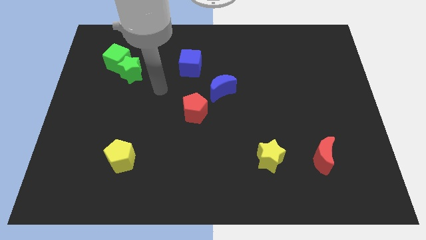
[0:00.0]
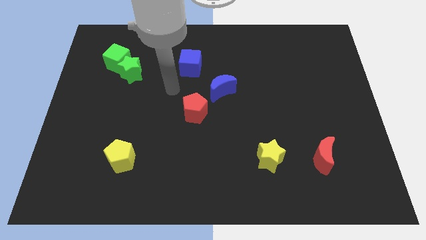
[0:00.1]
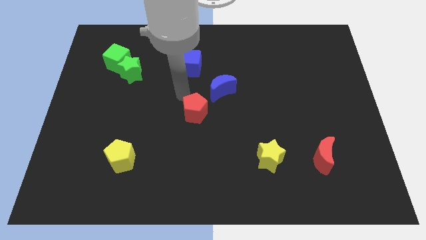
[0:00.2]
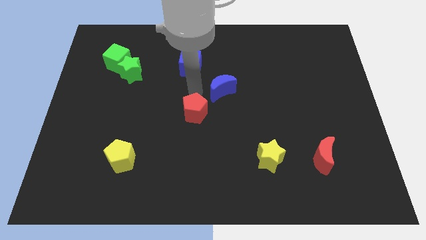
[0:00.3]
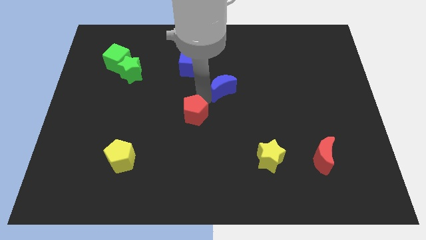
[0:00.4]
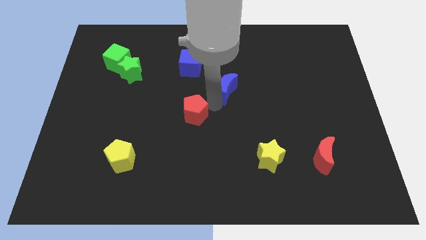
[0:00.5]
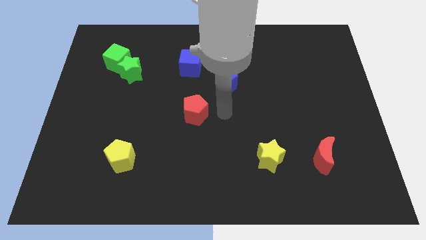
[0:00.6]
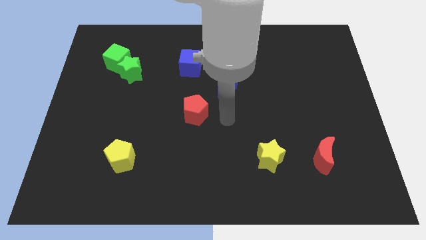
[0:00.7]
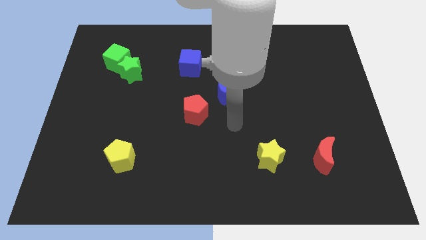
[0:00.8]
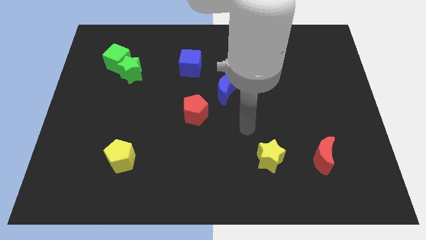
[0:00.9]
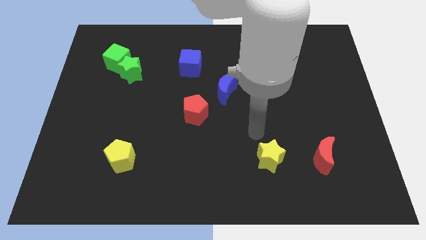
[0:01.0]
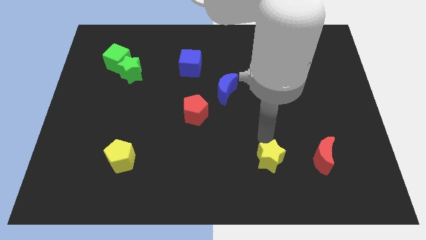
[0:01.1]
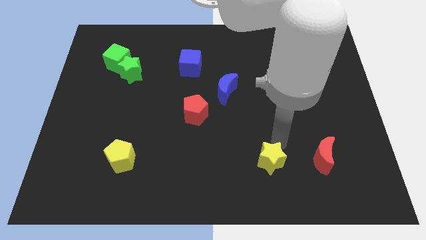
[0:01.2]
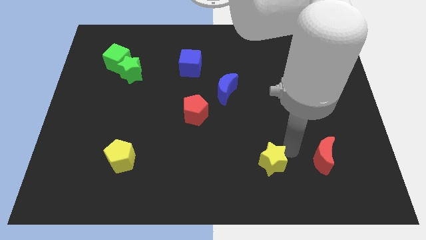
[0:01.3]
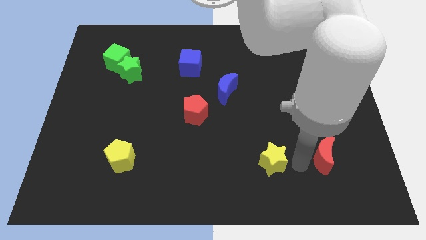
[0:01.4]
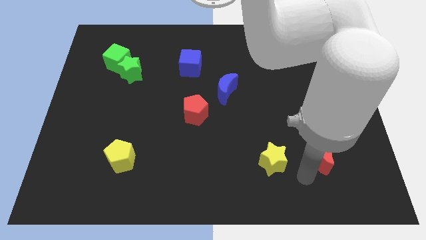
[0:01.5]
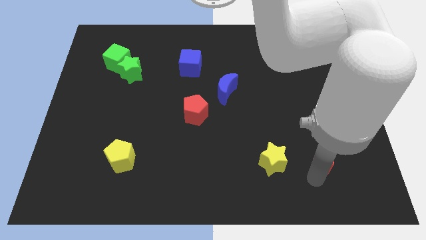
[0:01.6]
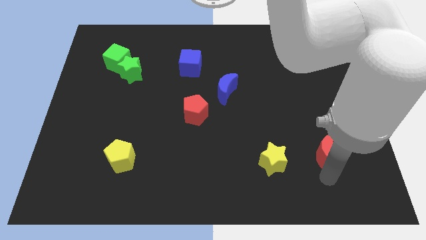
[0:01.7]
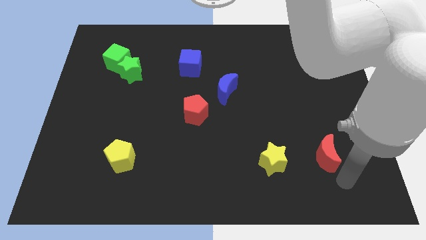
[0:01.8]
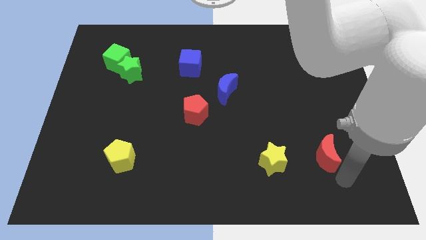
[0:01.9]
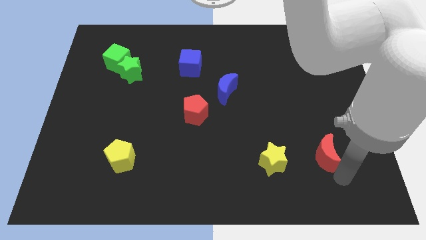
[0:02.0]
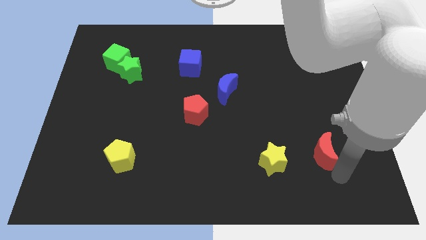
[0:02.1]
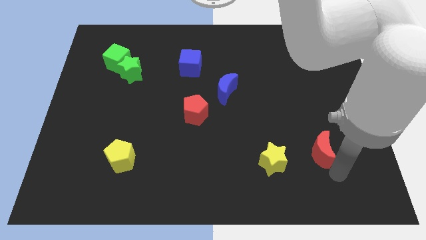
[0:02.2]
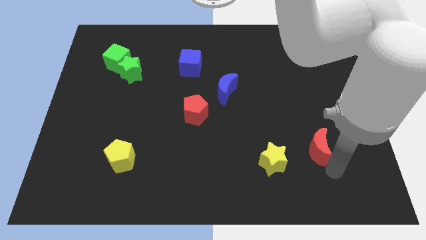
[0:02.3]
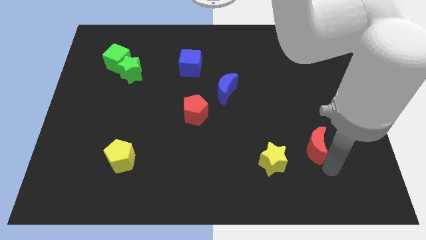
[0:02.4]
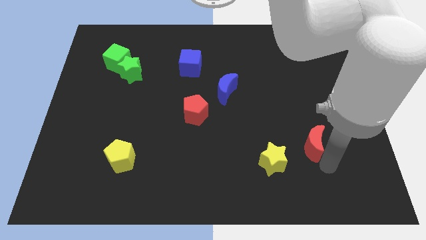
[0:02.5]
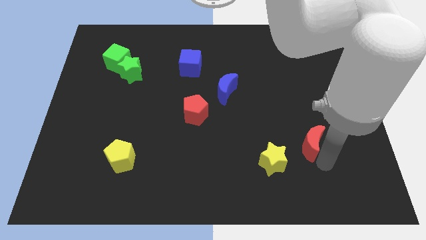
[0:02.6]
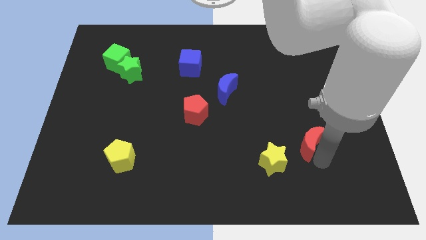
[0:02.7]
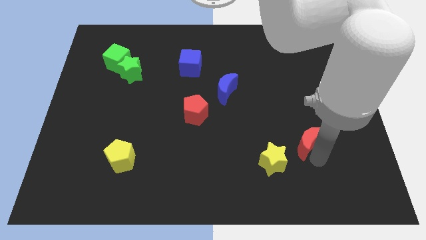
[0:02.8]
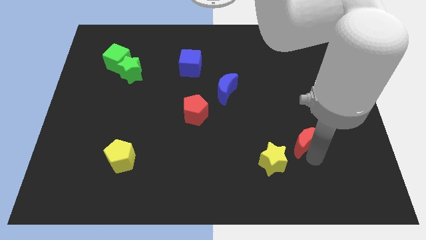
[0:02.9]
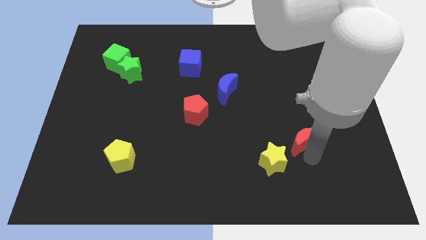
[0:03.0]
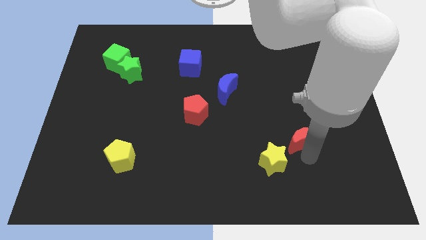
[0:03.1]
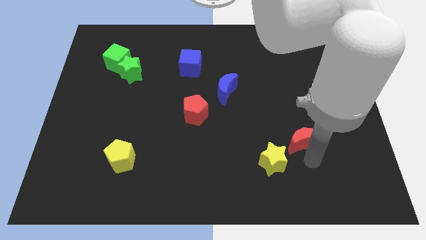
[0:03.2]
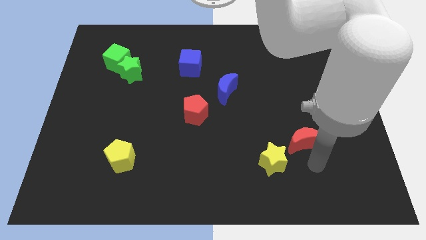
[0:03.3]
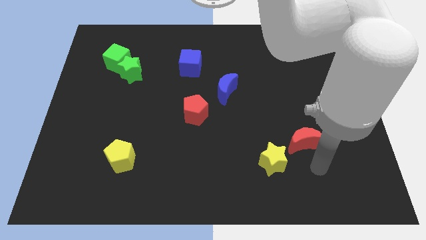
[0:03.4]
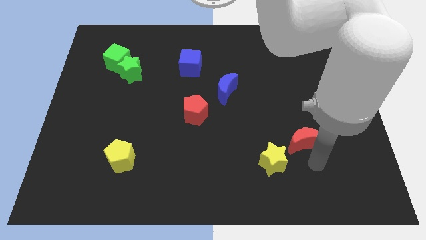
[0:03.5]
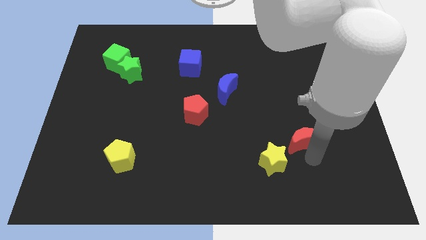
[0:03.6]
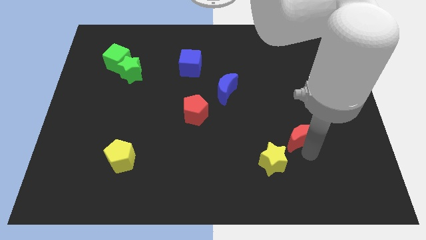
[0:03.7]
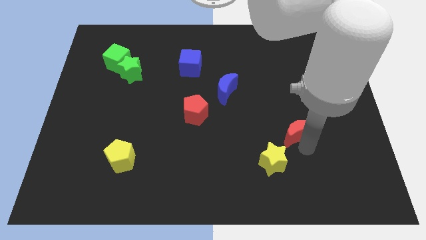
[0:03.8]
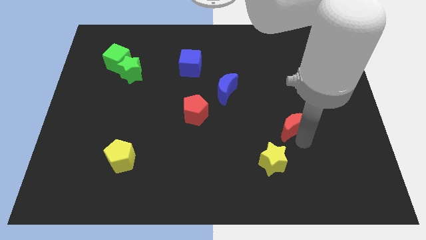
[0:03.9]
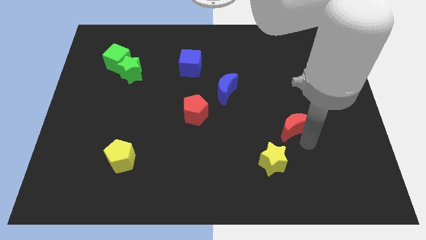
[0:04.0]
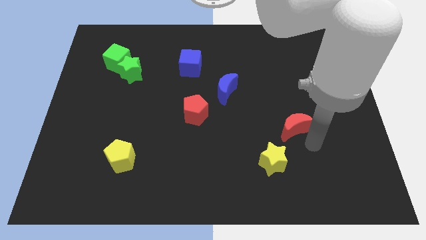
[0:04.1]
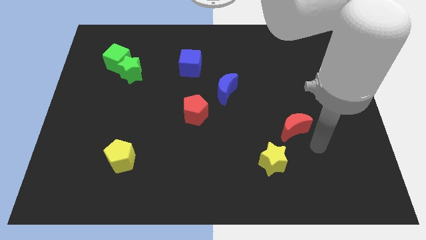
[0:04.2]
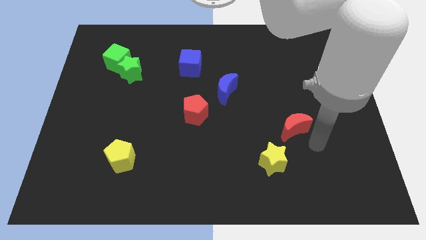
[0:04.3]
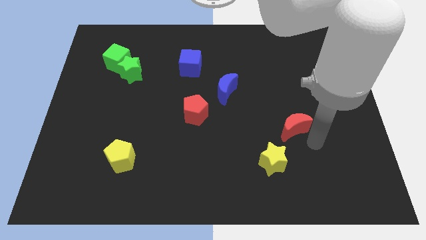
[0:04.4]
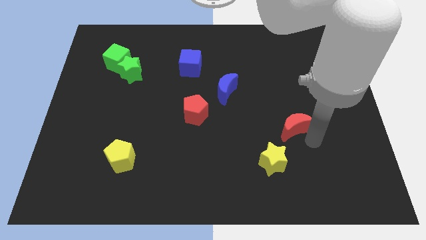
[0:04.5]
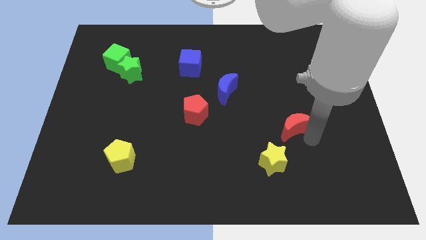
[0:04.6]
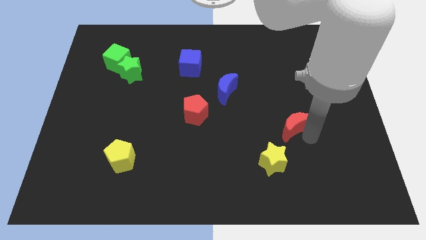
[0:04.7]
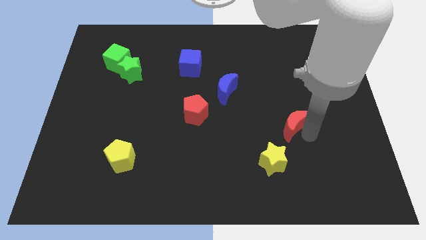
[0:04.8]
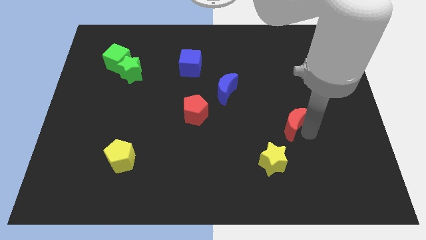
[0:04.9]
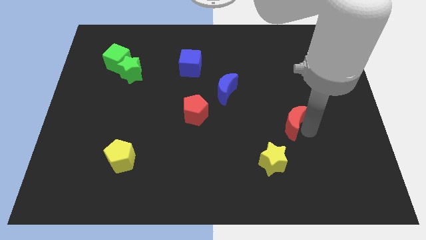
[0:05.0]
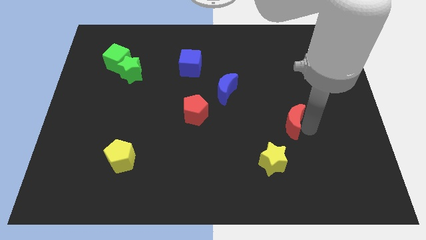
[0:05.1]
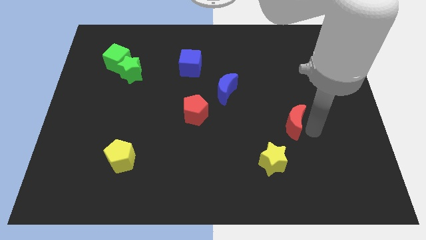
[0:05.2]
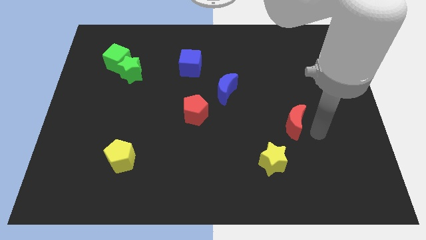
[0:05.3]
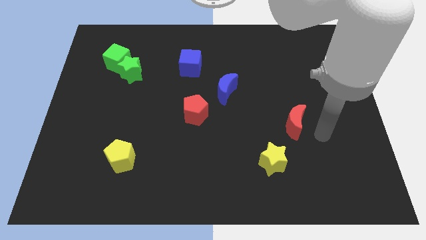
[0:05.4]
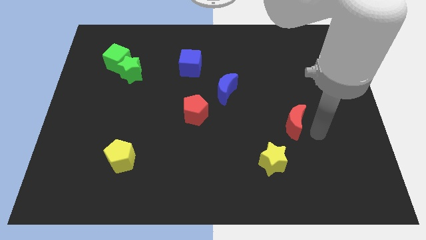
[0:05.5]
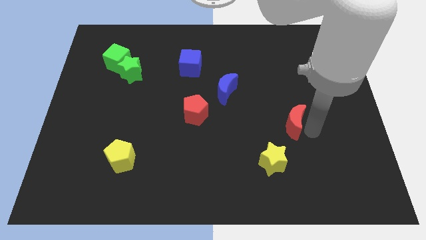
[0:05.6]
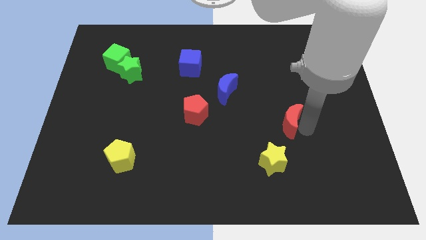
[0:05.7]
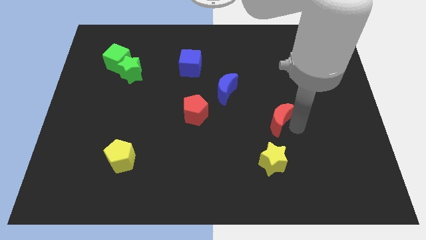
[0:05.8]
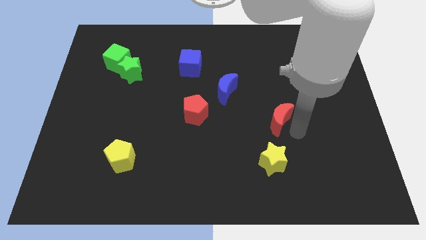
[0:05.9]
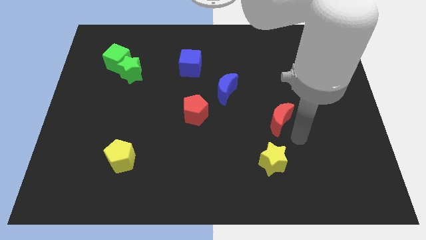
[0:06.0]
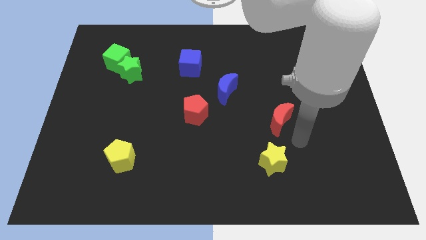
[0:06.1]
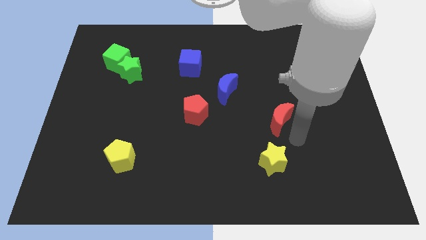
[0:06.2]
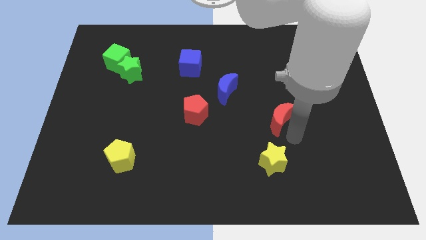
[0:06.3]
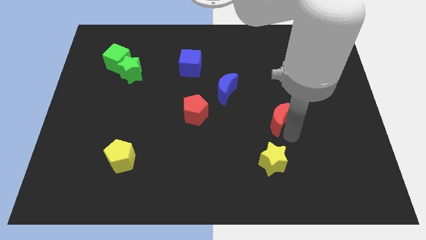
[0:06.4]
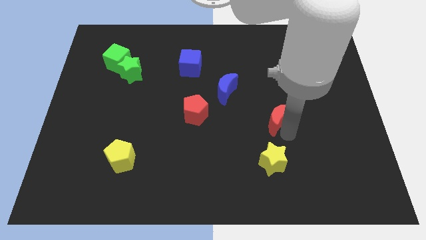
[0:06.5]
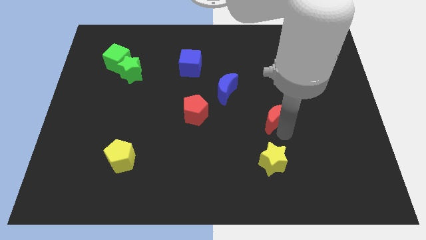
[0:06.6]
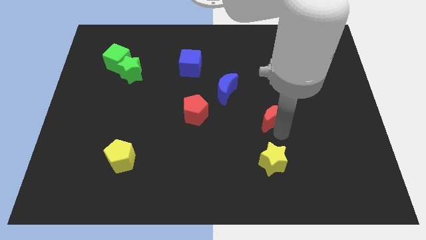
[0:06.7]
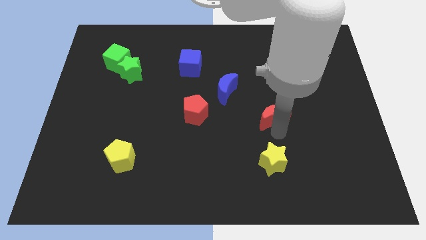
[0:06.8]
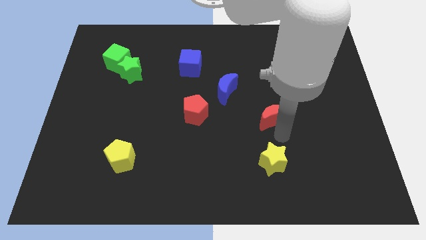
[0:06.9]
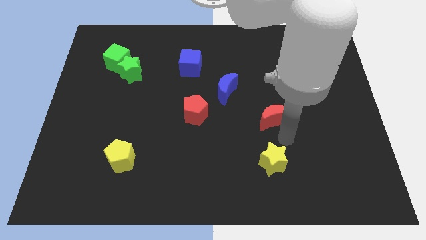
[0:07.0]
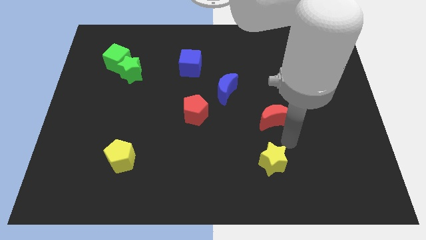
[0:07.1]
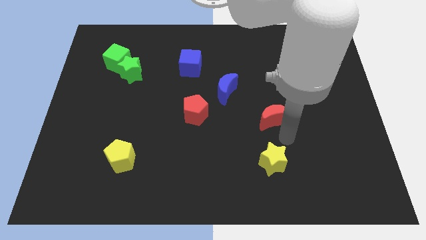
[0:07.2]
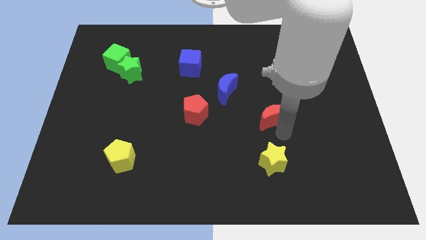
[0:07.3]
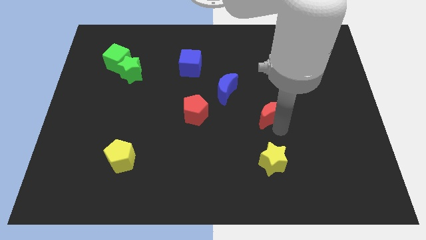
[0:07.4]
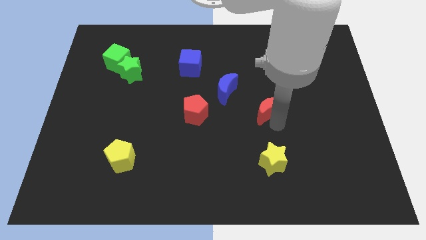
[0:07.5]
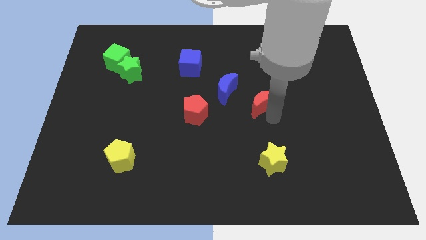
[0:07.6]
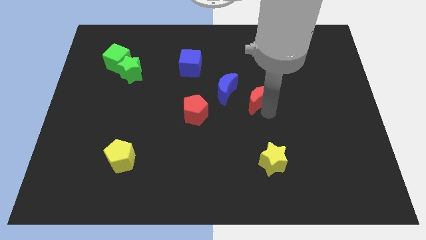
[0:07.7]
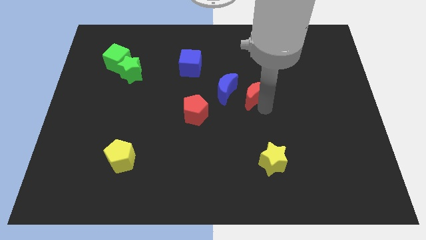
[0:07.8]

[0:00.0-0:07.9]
move the red moon up and then left

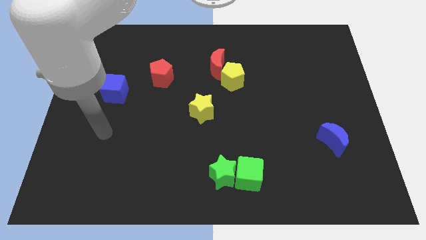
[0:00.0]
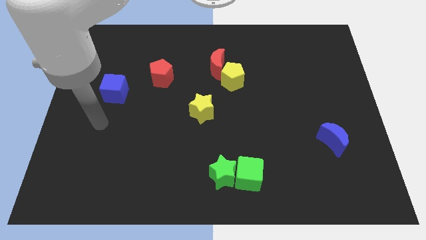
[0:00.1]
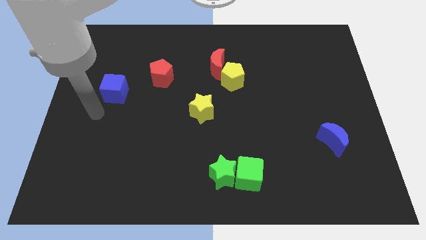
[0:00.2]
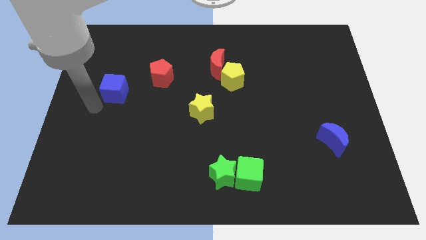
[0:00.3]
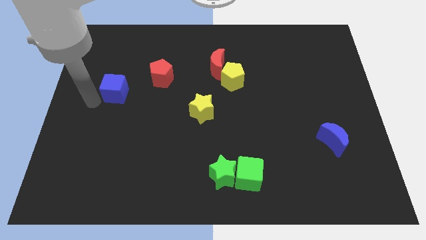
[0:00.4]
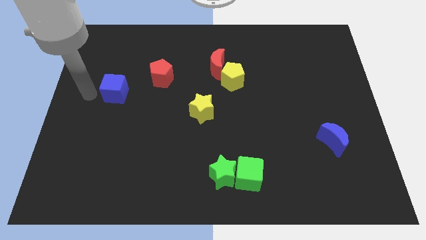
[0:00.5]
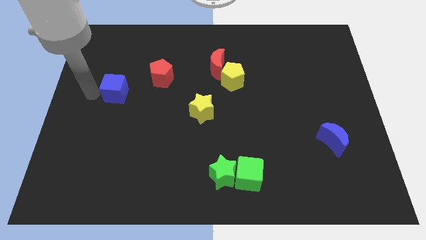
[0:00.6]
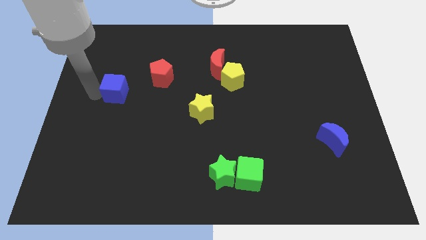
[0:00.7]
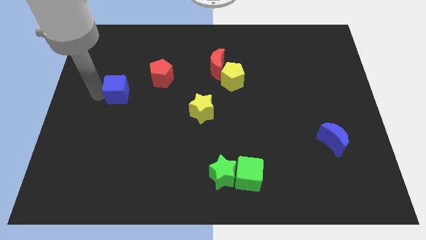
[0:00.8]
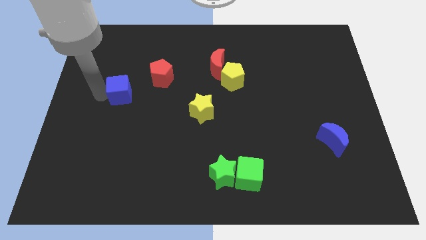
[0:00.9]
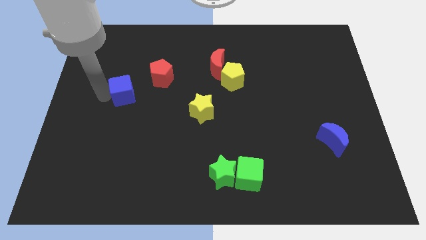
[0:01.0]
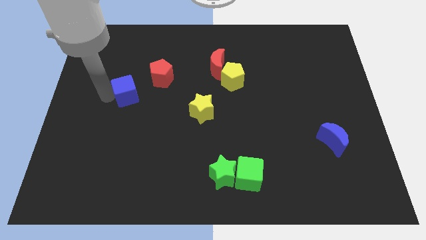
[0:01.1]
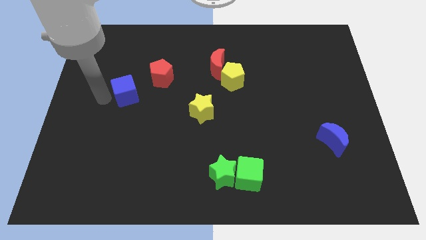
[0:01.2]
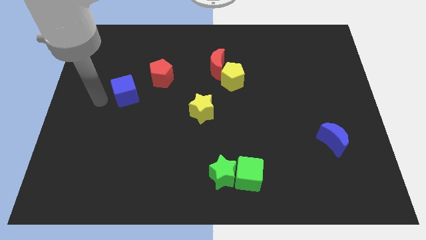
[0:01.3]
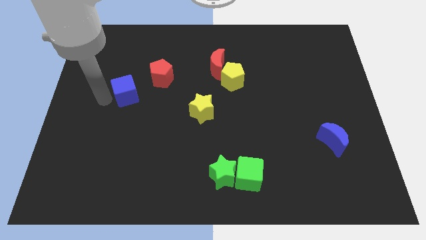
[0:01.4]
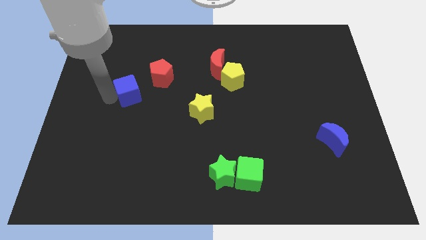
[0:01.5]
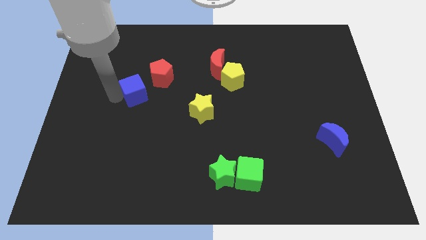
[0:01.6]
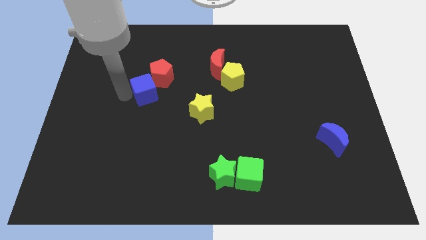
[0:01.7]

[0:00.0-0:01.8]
slightly move the blue cube right
